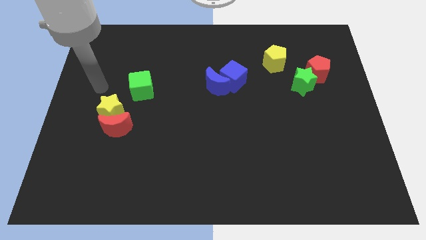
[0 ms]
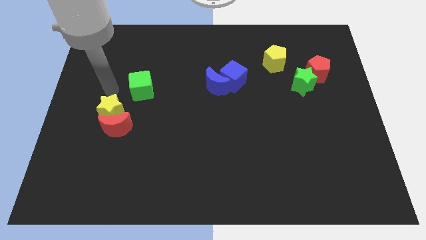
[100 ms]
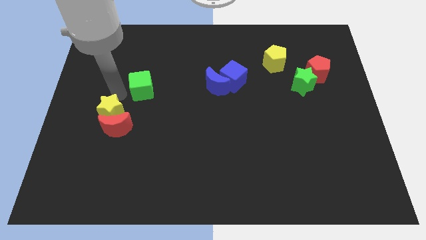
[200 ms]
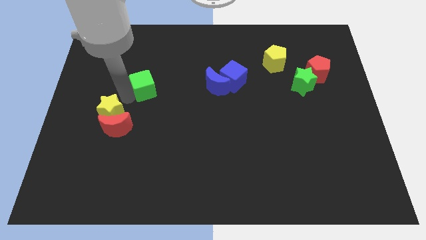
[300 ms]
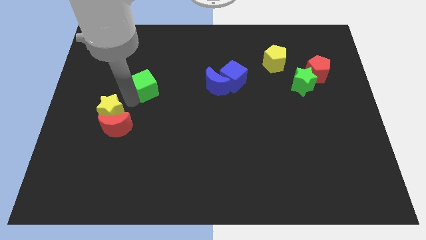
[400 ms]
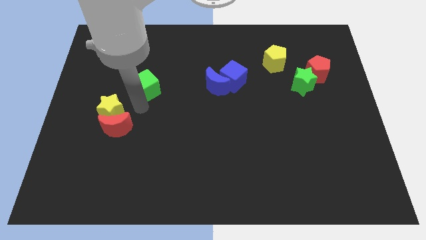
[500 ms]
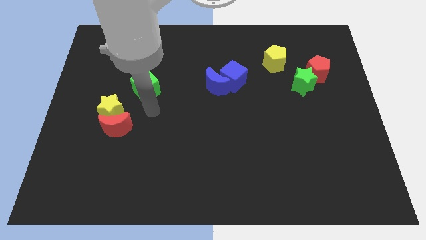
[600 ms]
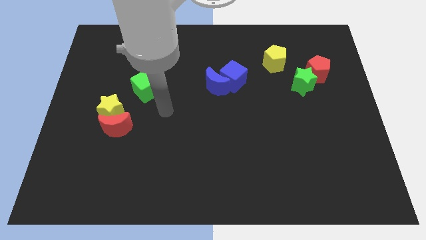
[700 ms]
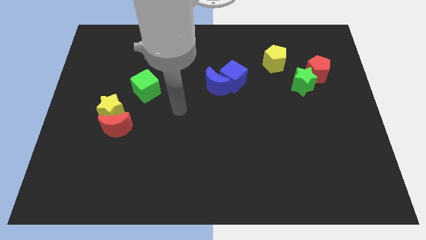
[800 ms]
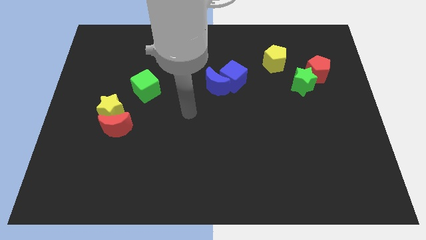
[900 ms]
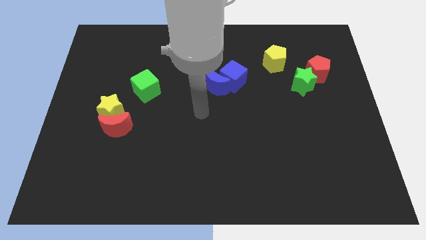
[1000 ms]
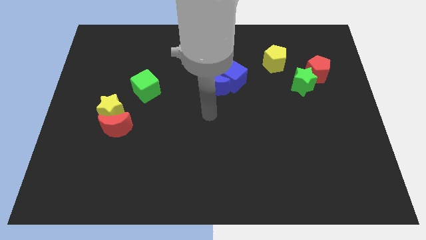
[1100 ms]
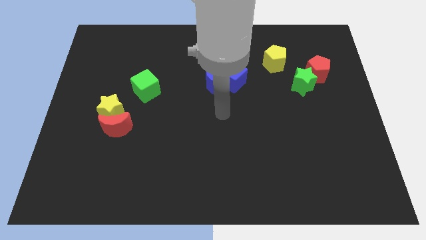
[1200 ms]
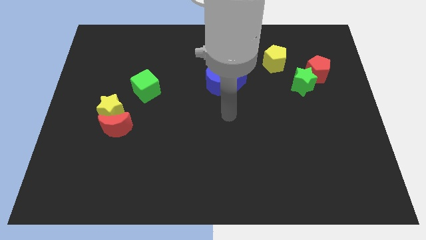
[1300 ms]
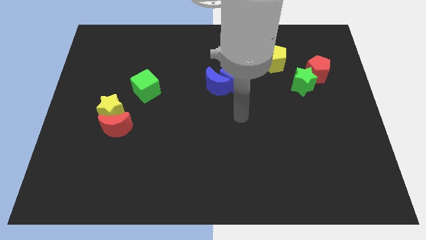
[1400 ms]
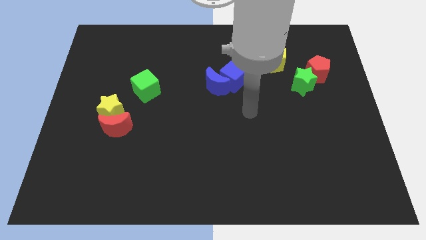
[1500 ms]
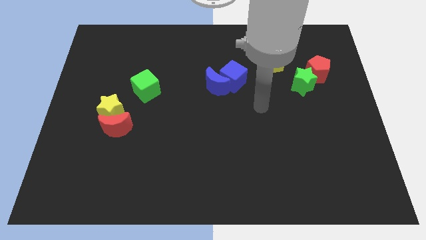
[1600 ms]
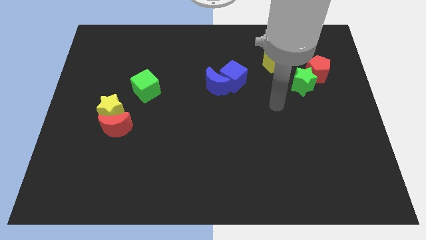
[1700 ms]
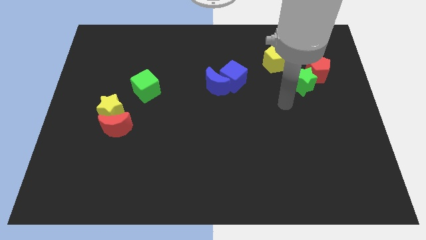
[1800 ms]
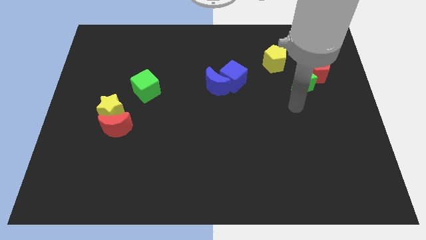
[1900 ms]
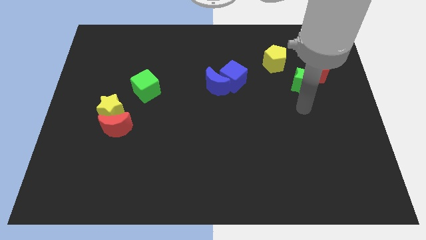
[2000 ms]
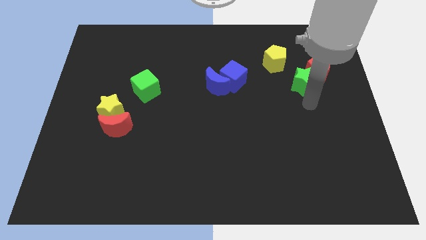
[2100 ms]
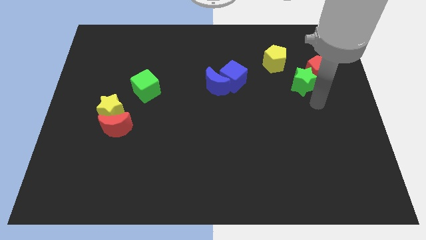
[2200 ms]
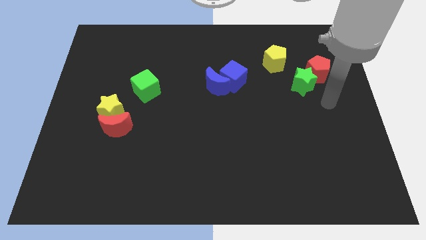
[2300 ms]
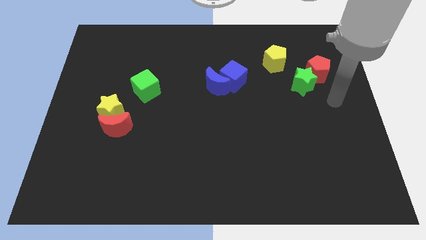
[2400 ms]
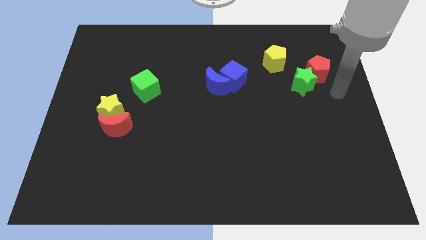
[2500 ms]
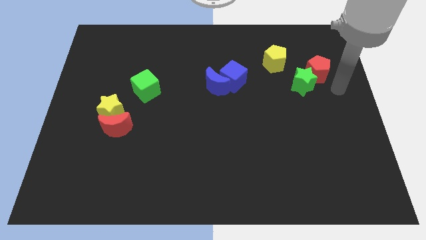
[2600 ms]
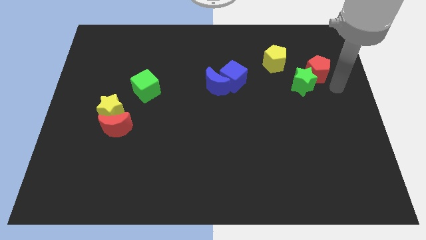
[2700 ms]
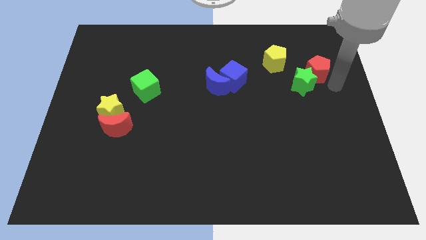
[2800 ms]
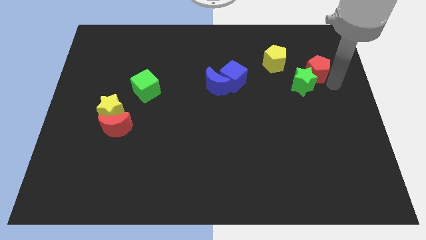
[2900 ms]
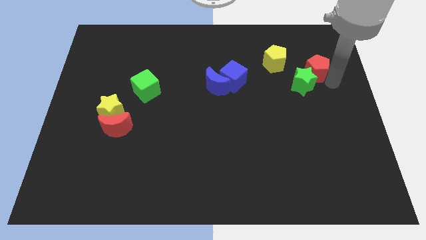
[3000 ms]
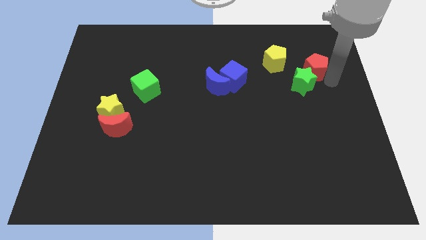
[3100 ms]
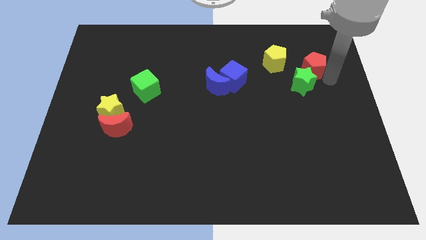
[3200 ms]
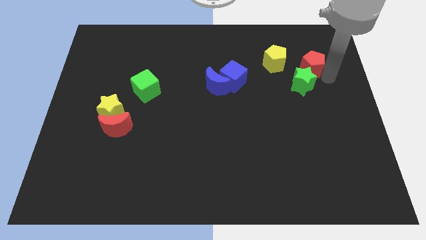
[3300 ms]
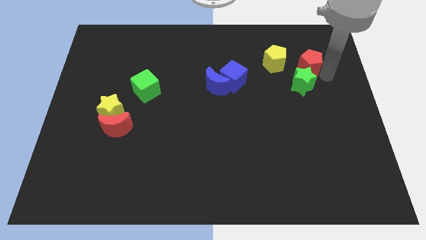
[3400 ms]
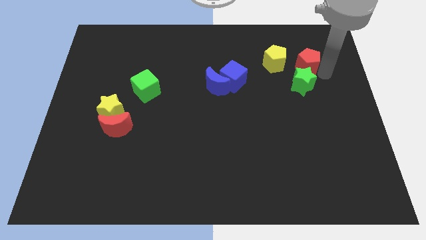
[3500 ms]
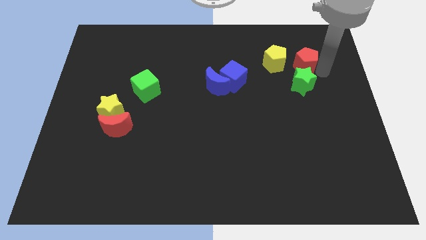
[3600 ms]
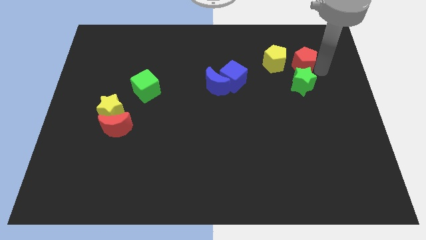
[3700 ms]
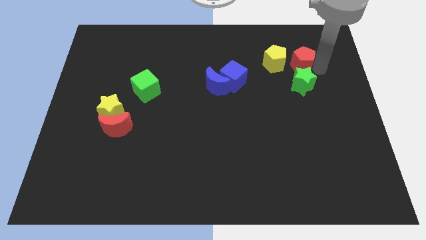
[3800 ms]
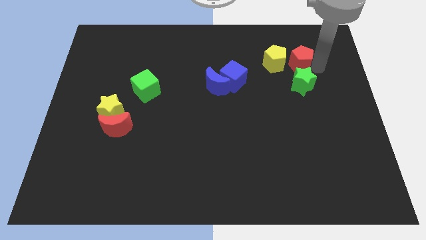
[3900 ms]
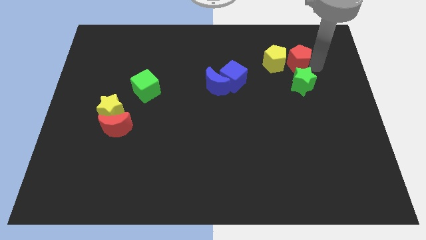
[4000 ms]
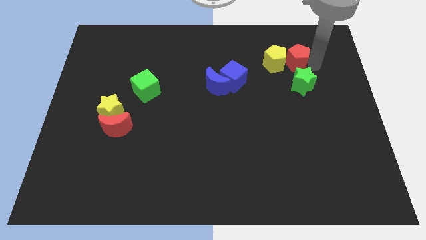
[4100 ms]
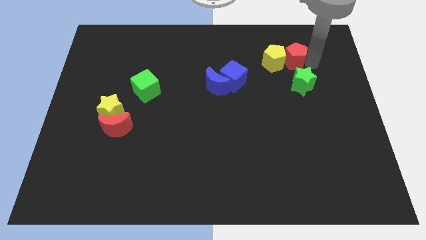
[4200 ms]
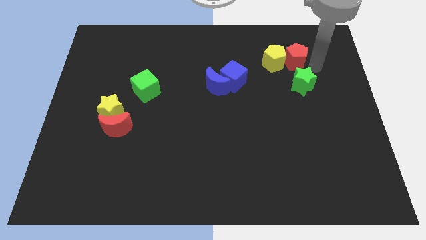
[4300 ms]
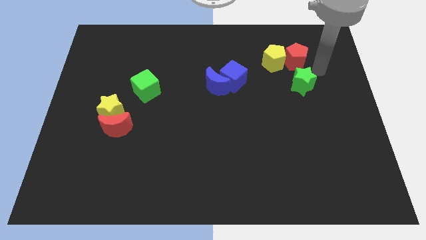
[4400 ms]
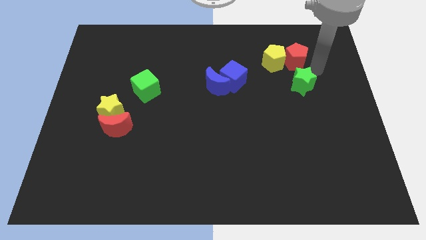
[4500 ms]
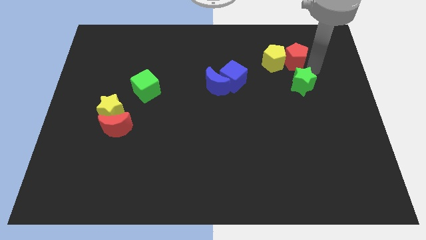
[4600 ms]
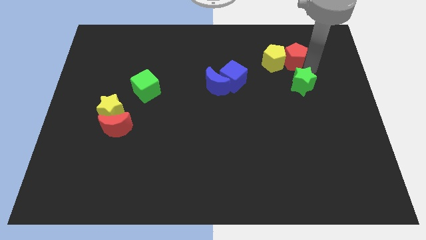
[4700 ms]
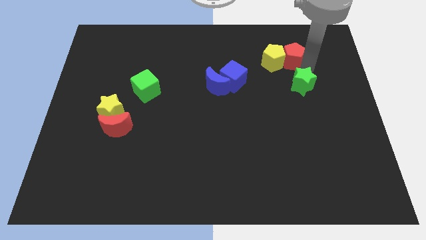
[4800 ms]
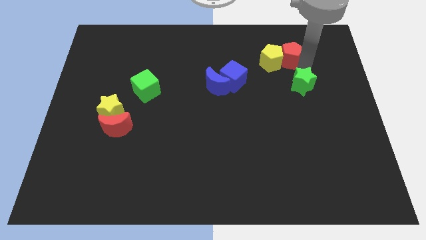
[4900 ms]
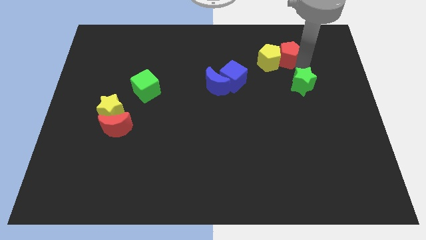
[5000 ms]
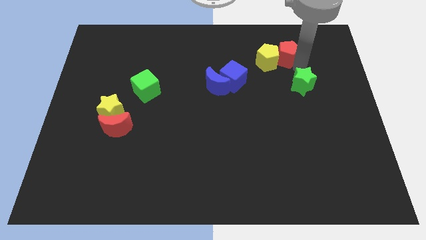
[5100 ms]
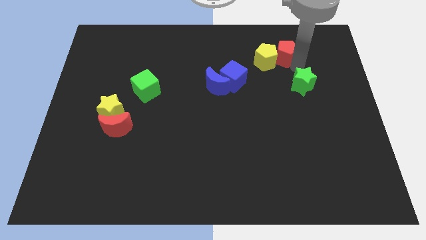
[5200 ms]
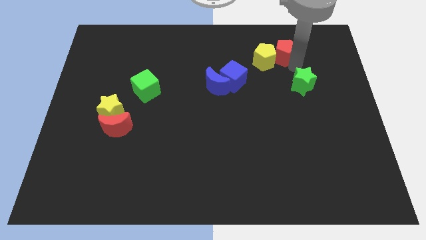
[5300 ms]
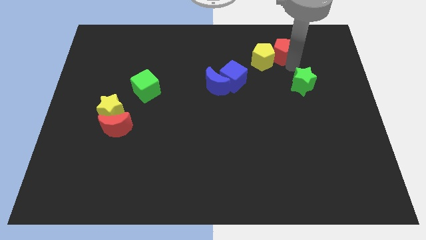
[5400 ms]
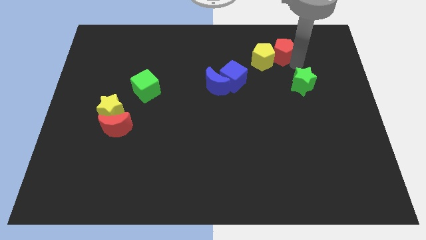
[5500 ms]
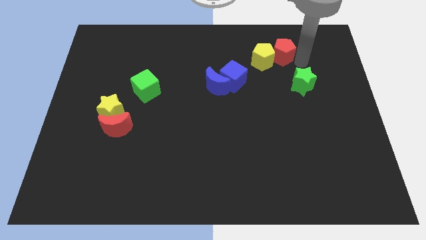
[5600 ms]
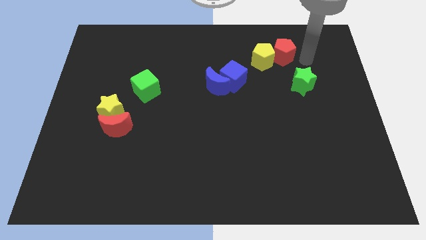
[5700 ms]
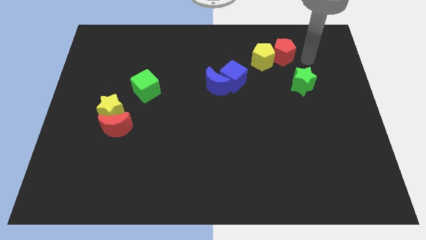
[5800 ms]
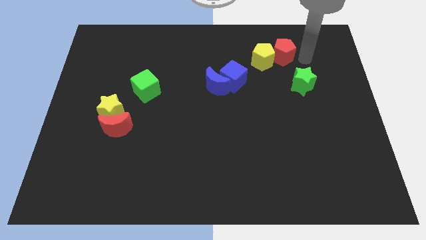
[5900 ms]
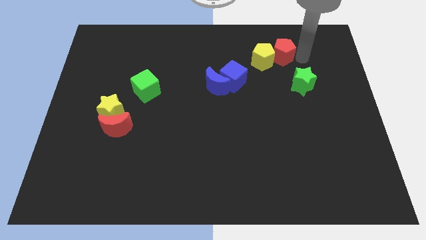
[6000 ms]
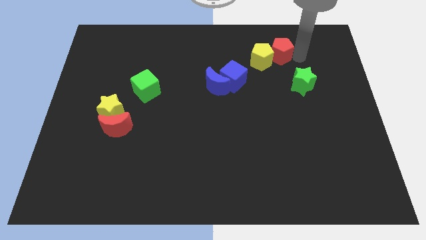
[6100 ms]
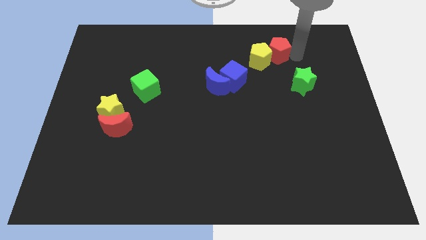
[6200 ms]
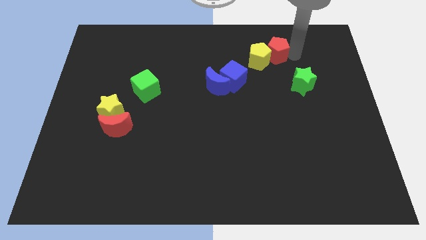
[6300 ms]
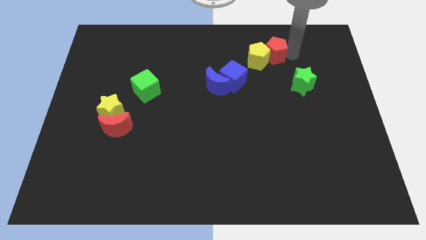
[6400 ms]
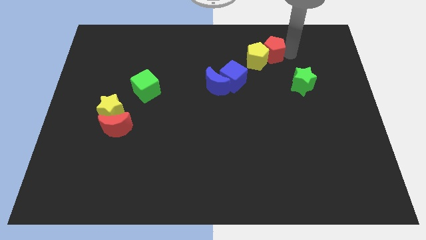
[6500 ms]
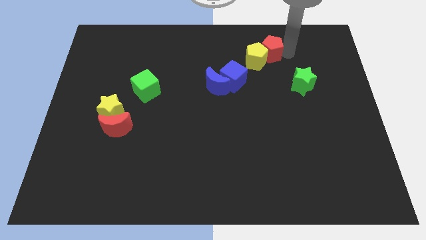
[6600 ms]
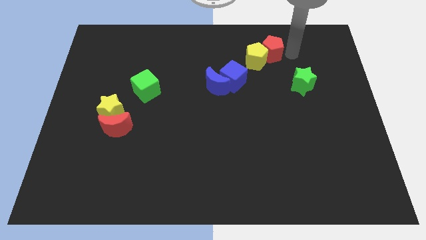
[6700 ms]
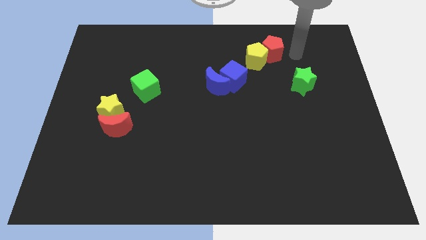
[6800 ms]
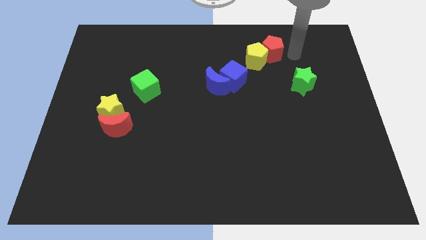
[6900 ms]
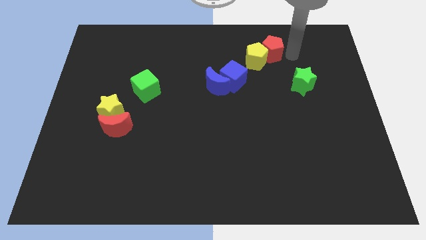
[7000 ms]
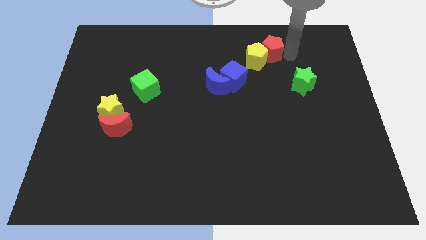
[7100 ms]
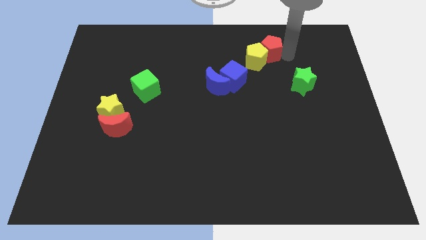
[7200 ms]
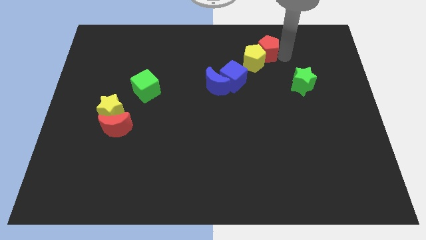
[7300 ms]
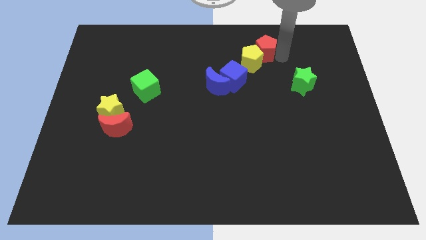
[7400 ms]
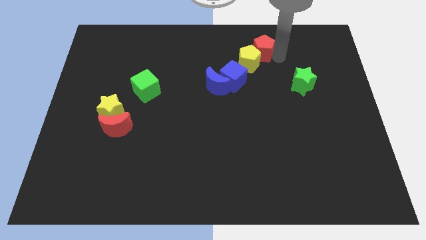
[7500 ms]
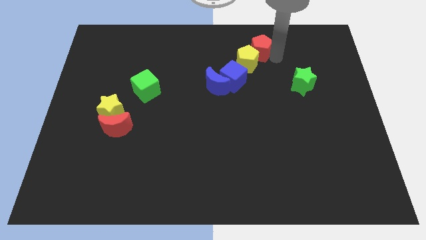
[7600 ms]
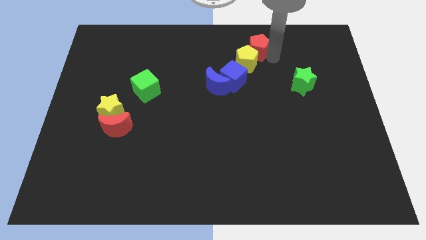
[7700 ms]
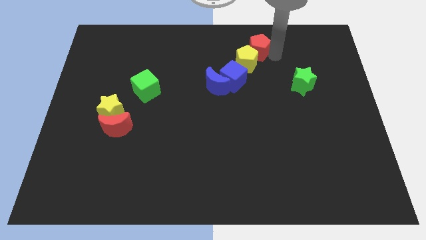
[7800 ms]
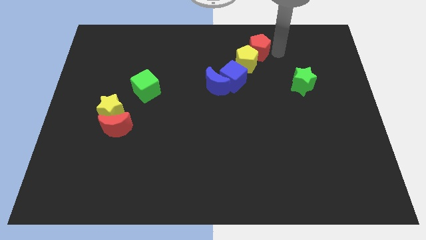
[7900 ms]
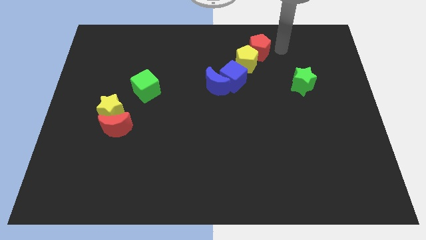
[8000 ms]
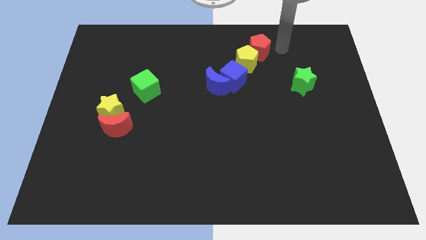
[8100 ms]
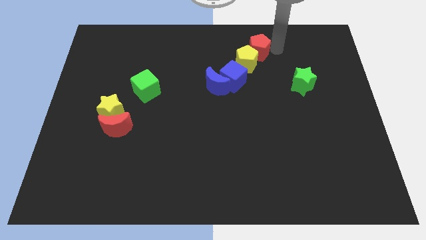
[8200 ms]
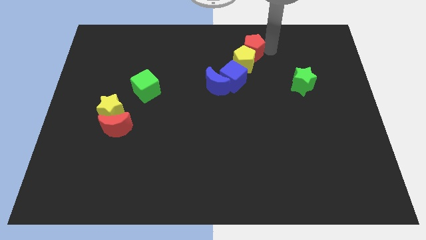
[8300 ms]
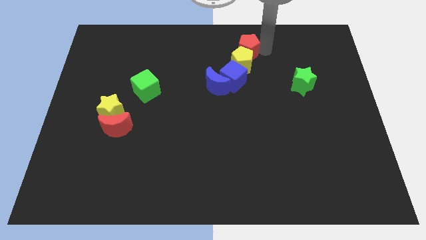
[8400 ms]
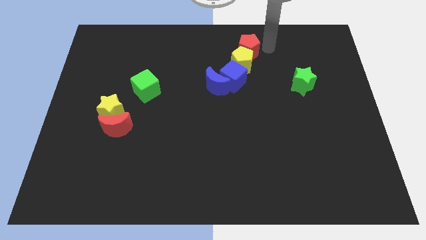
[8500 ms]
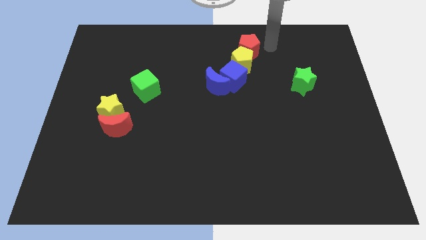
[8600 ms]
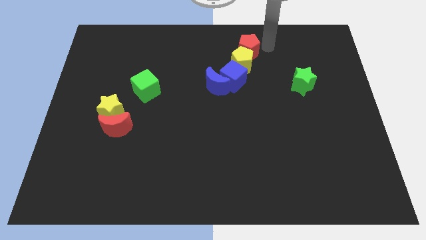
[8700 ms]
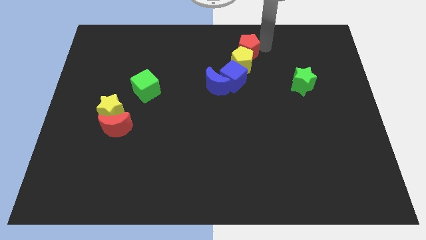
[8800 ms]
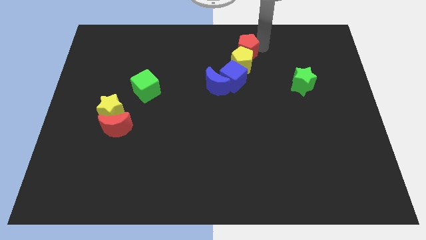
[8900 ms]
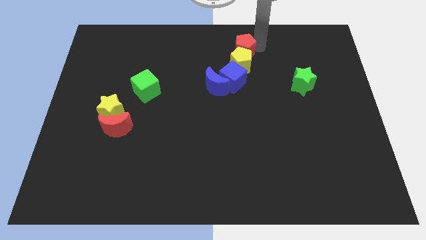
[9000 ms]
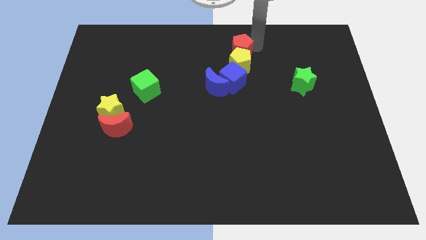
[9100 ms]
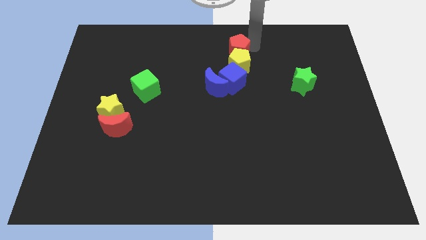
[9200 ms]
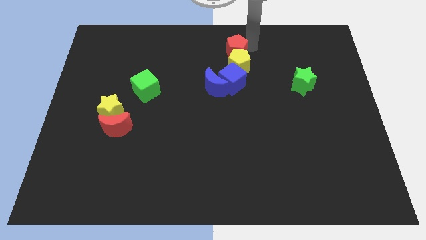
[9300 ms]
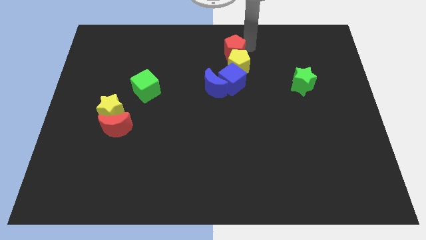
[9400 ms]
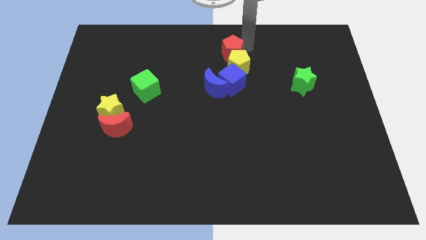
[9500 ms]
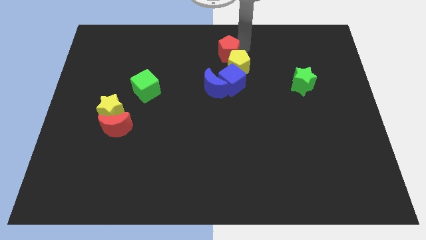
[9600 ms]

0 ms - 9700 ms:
push the red pentagon left
